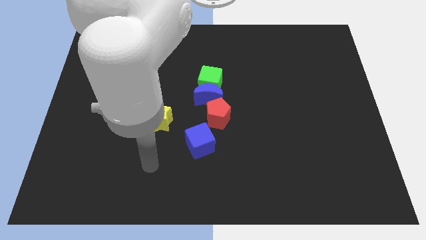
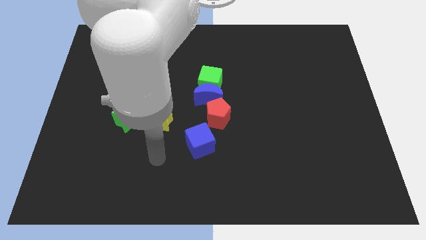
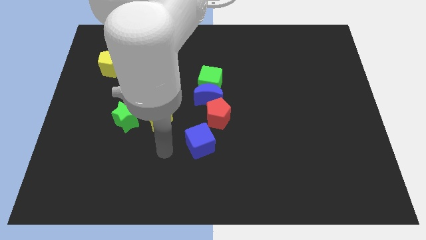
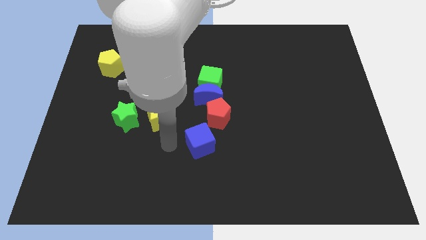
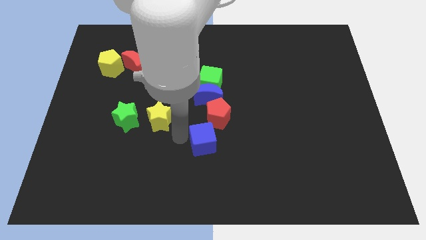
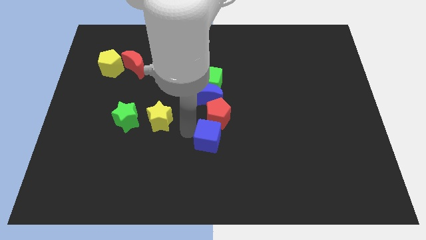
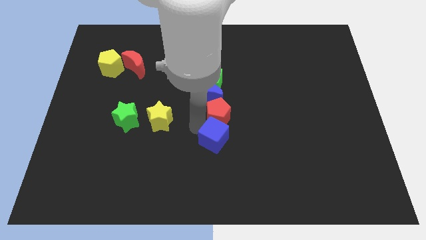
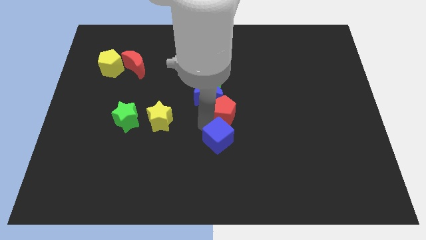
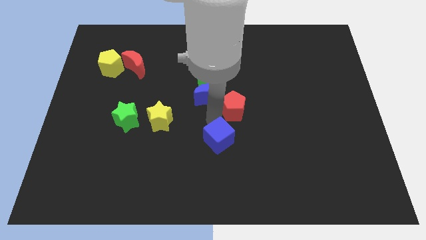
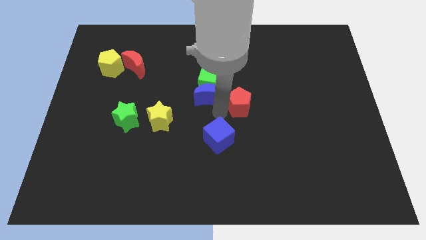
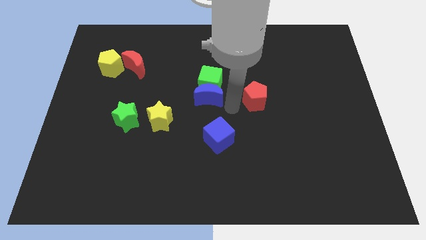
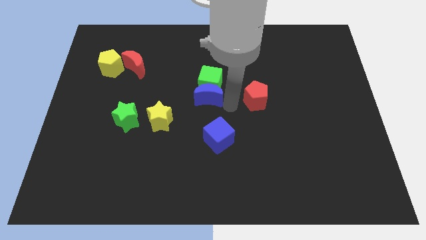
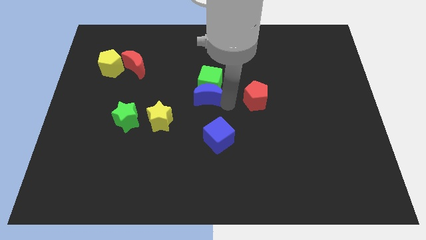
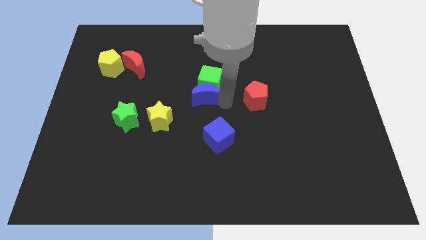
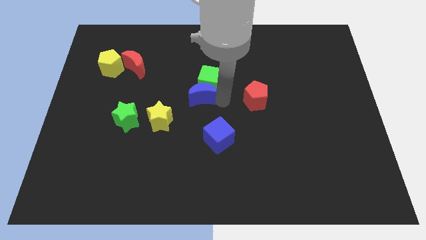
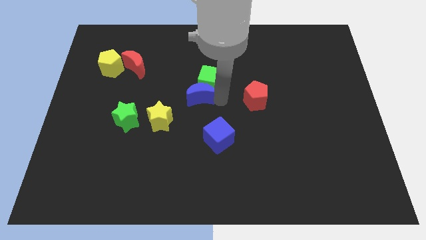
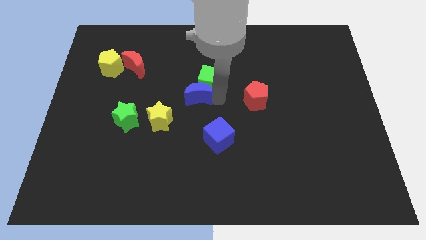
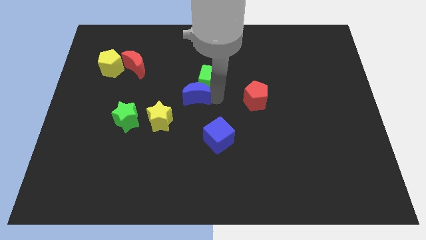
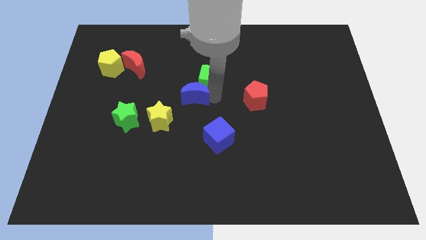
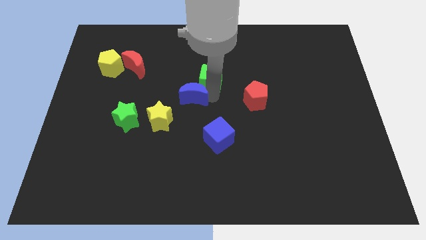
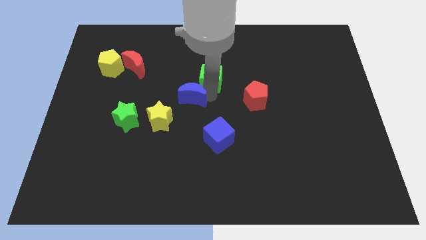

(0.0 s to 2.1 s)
move the blue moon away from the green cube and red pentagon

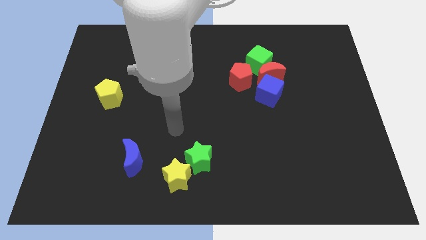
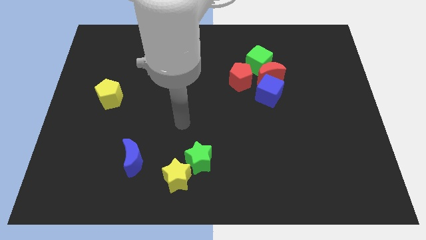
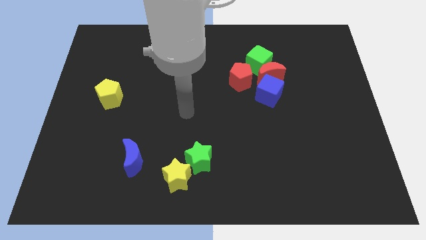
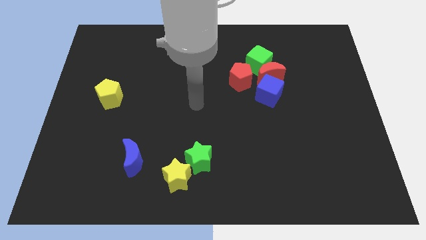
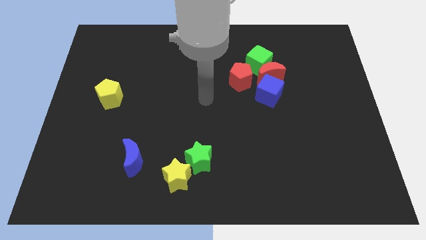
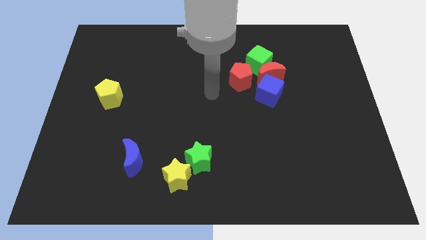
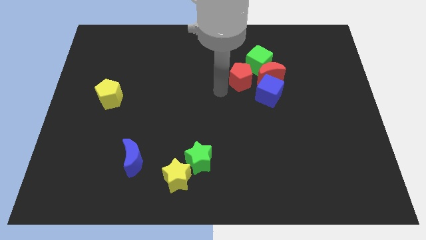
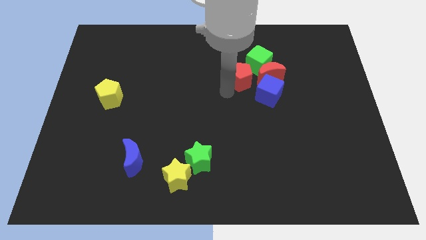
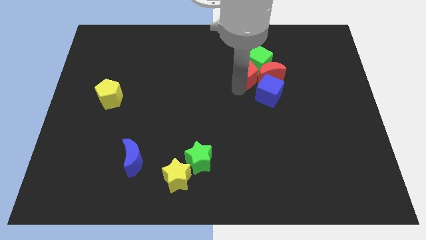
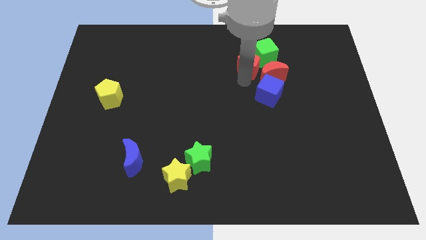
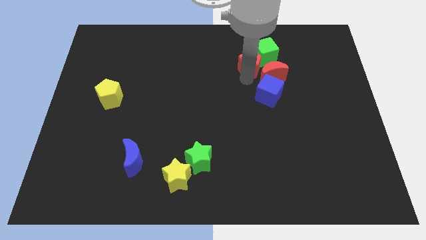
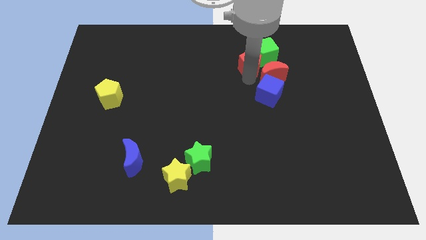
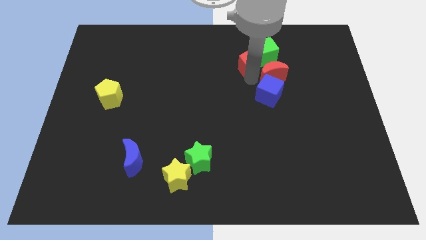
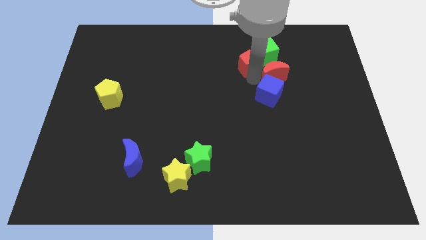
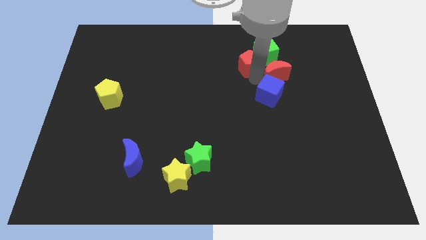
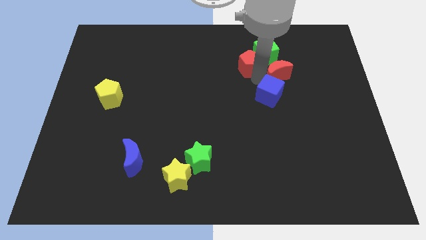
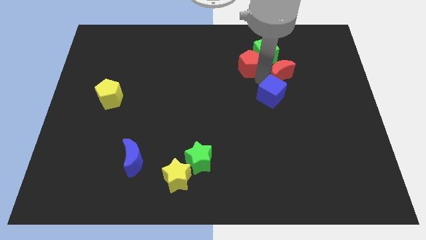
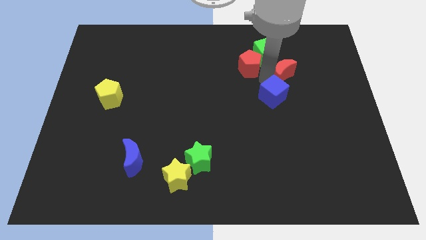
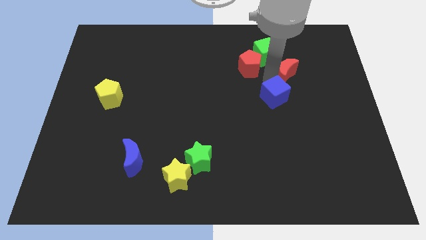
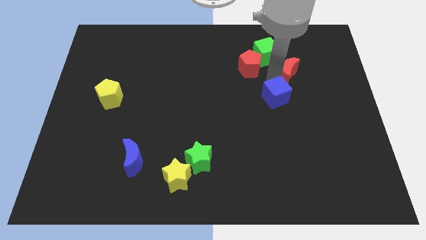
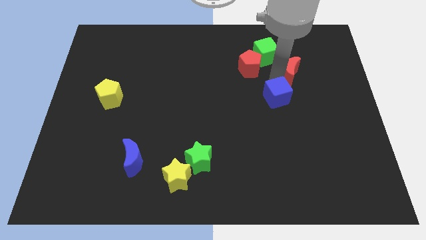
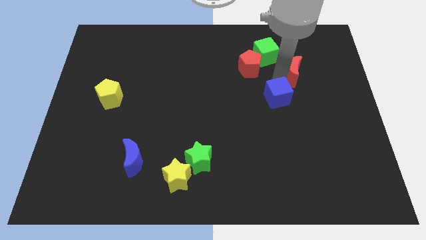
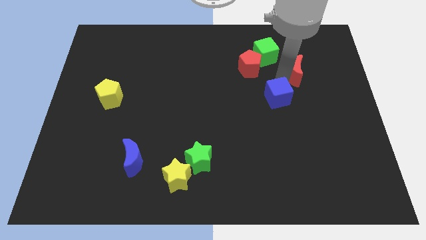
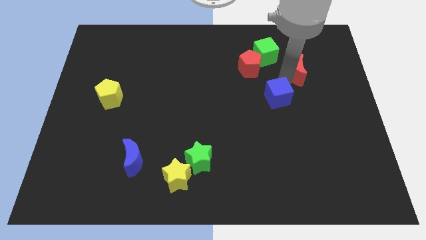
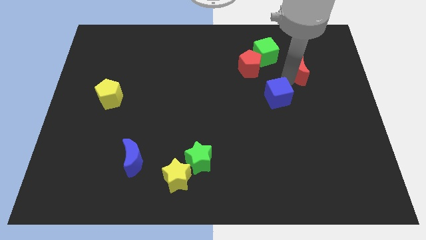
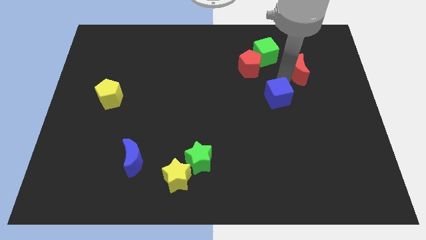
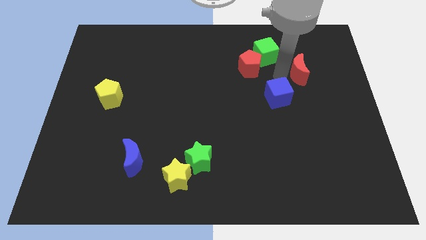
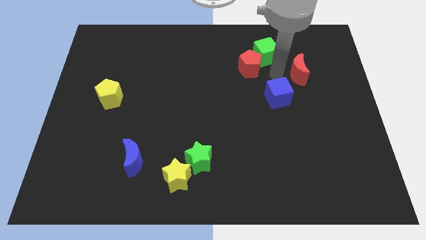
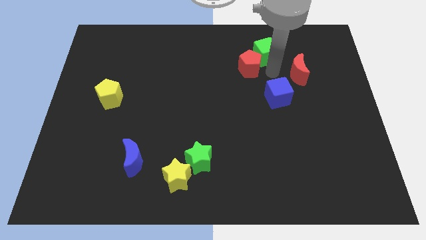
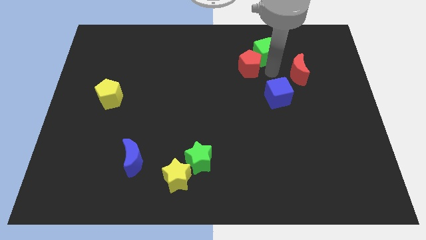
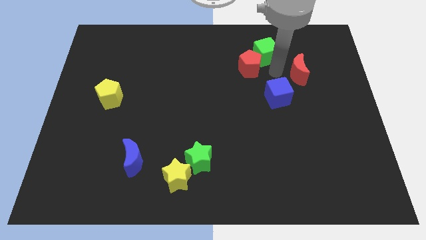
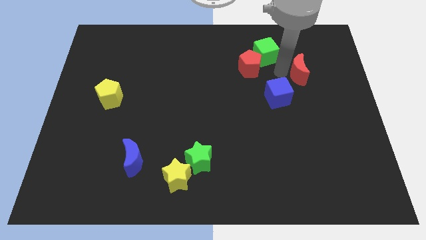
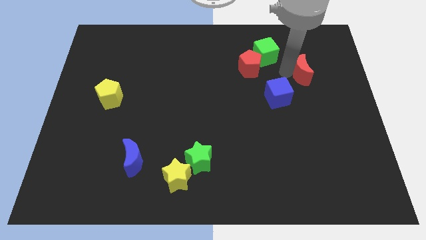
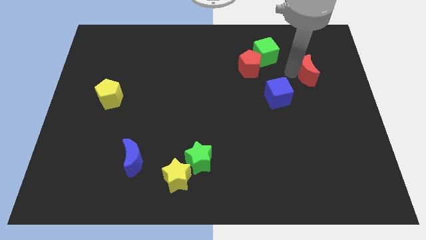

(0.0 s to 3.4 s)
pull the red moon apart from the clump

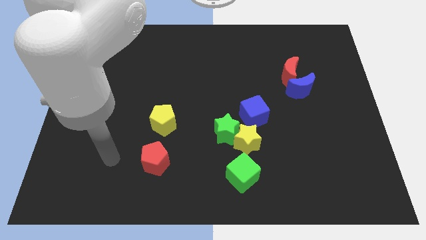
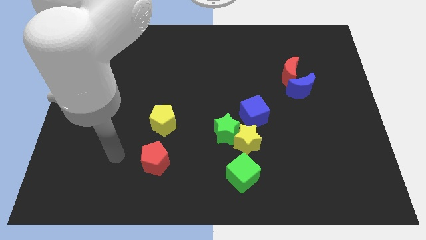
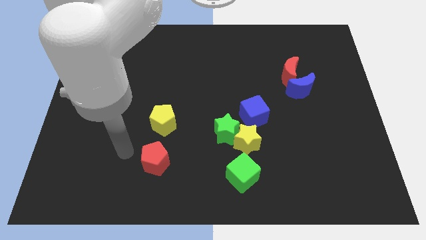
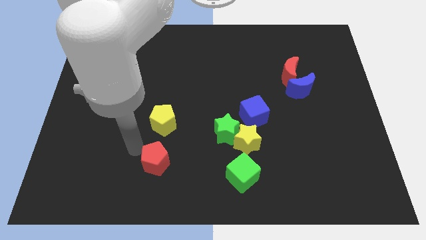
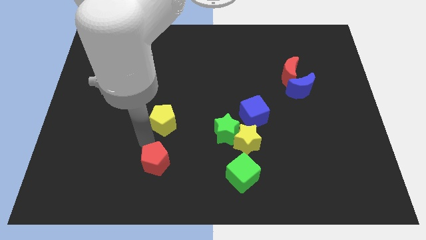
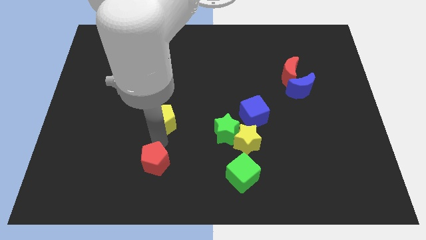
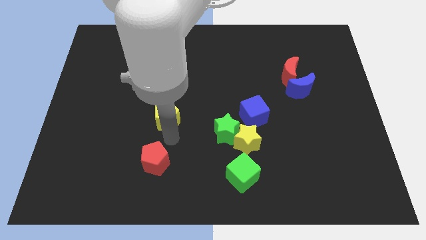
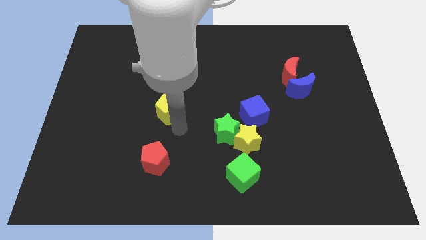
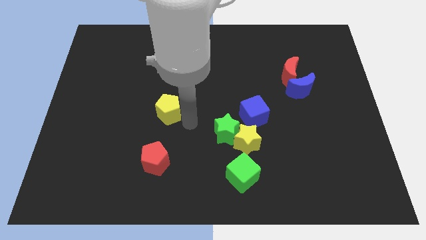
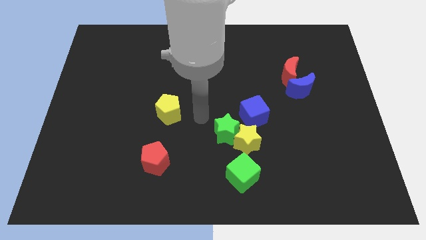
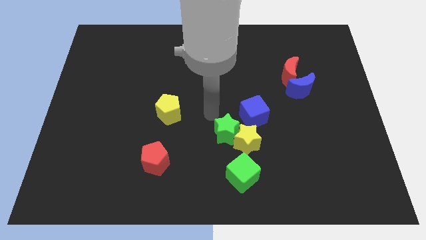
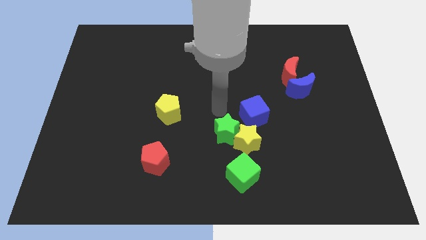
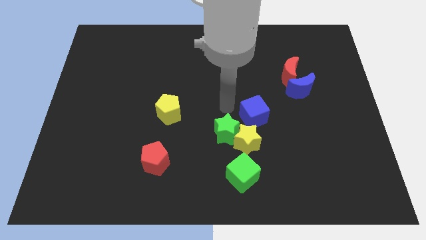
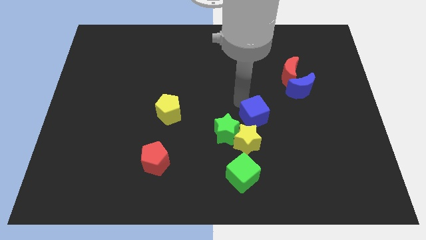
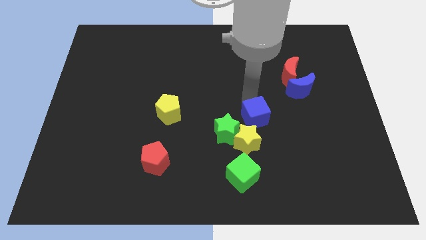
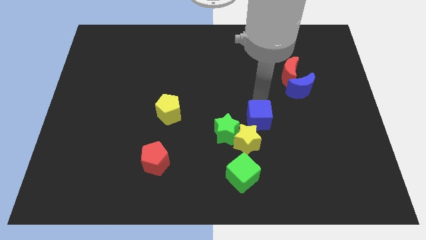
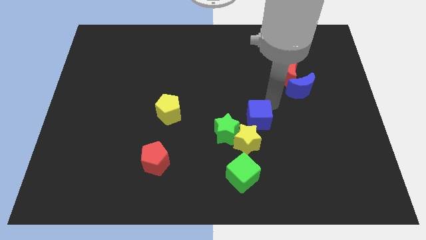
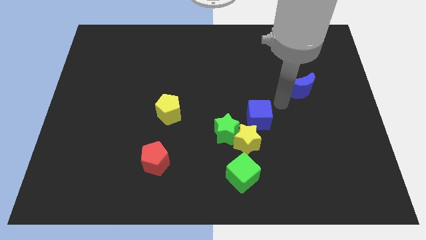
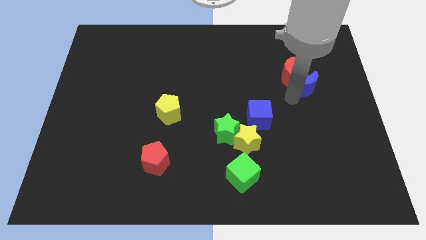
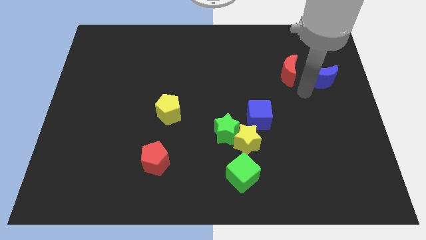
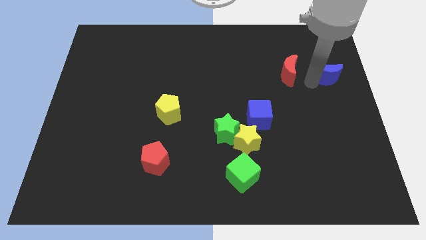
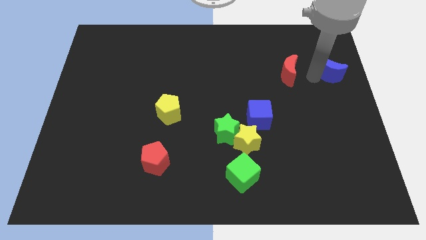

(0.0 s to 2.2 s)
move the red moon away from the blue moon

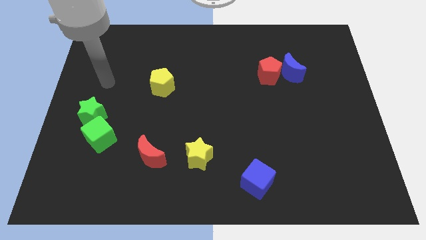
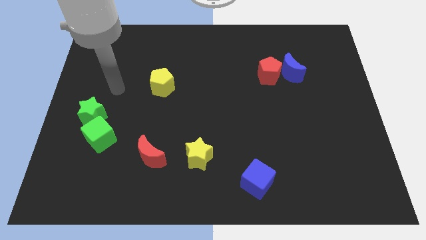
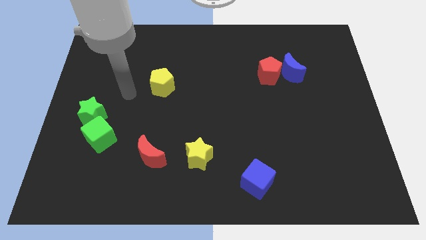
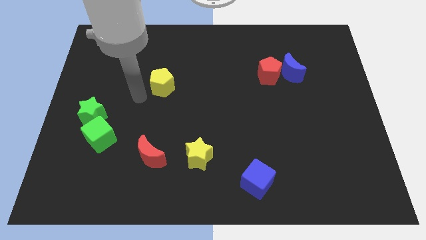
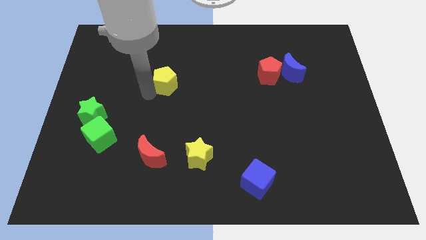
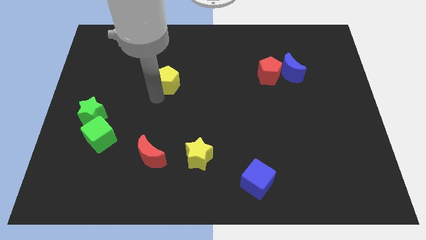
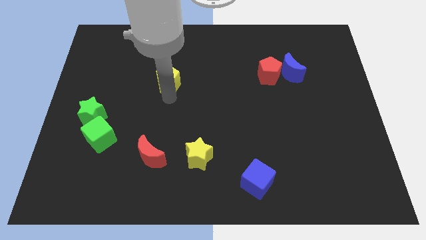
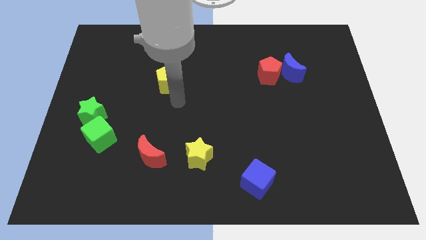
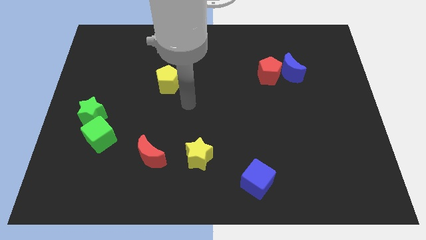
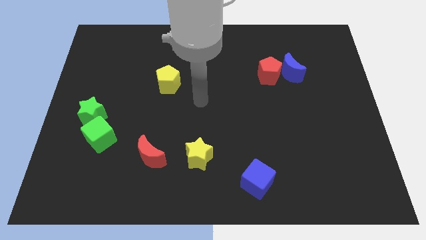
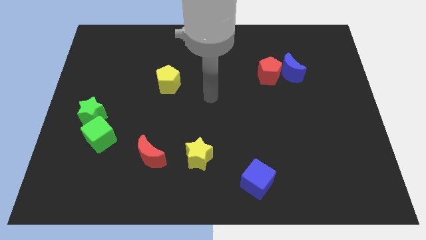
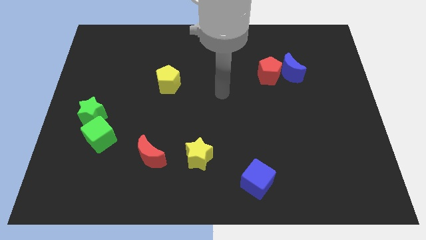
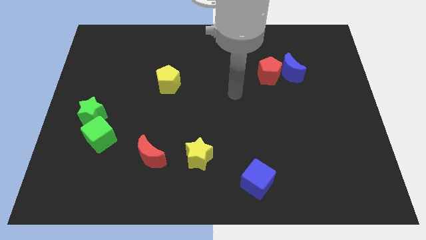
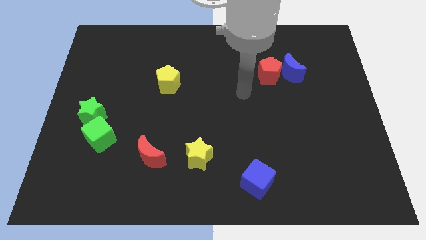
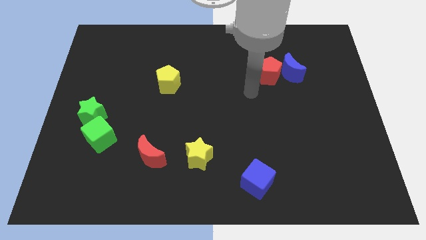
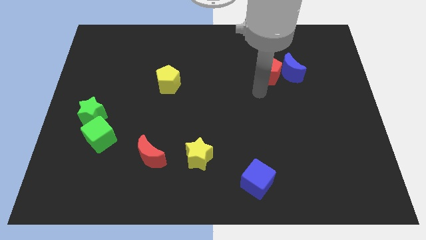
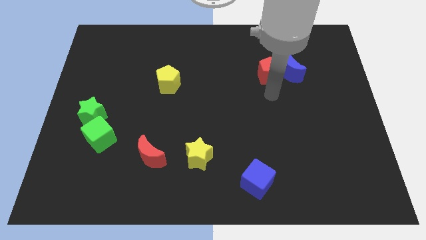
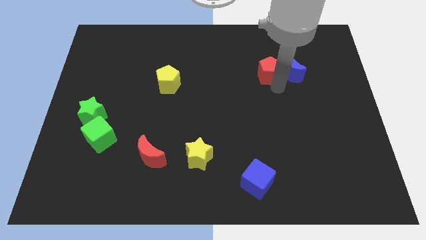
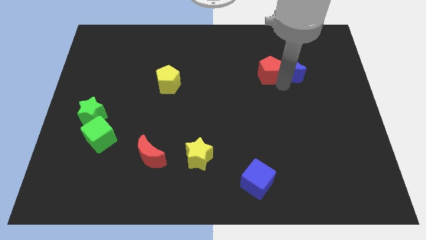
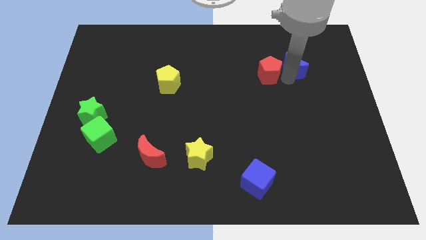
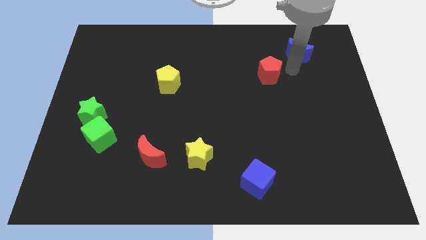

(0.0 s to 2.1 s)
separate the red pentagon from the blue moon
